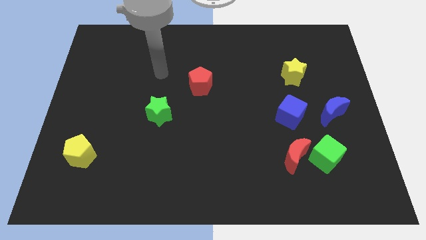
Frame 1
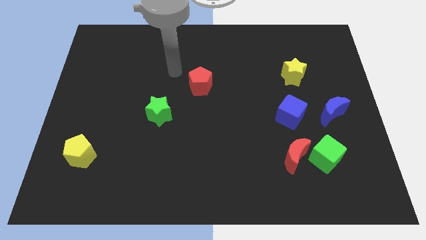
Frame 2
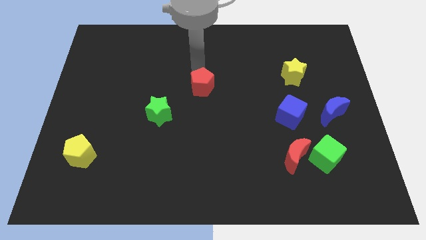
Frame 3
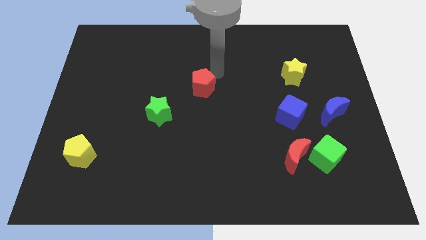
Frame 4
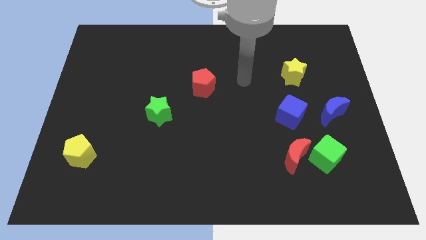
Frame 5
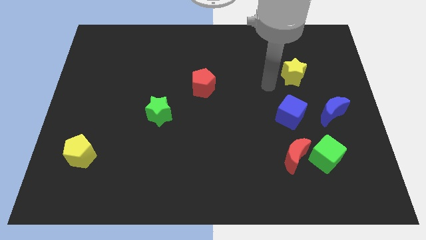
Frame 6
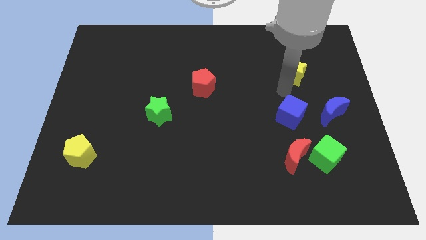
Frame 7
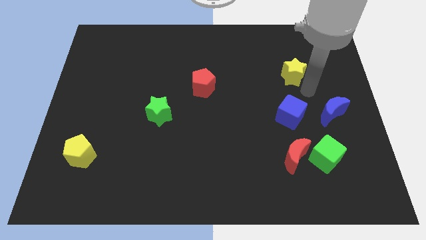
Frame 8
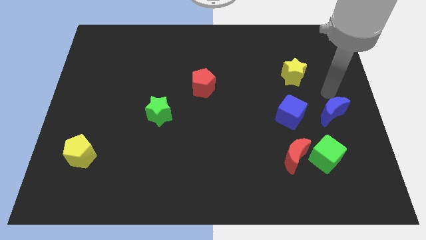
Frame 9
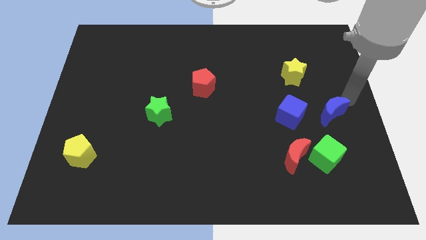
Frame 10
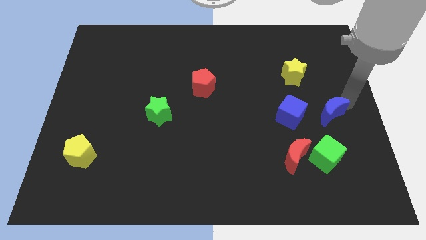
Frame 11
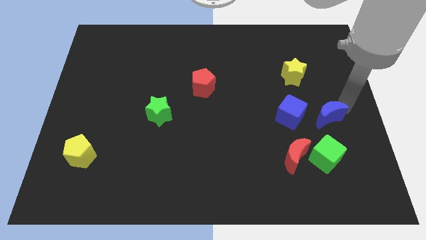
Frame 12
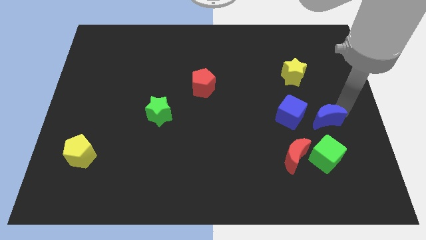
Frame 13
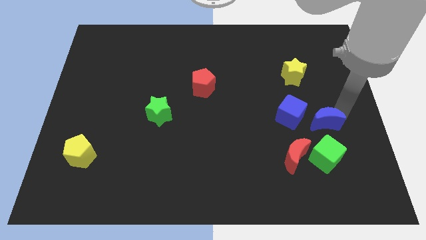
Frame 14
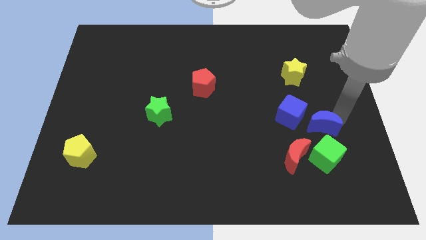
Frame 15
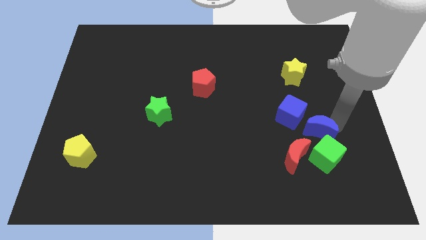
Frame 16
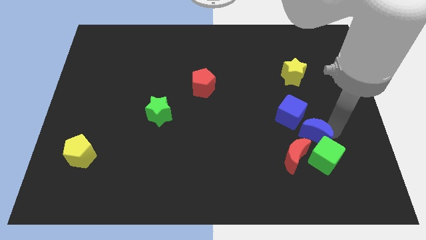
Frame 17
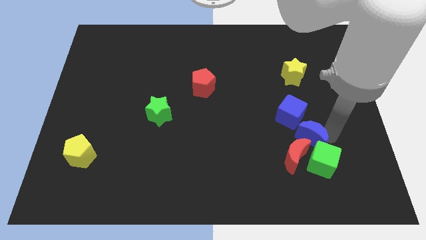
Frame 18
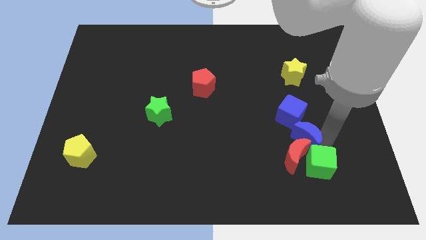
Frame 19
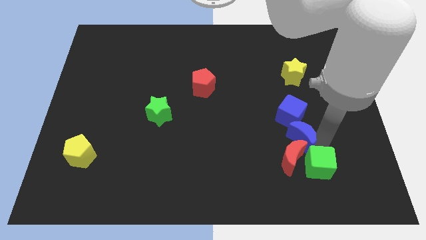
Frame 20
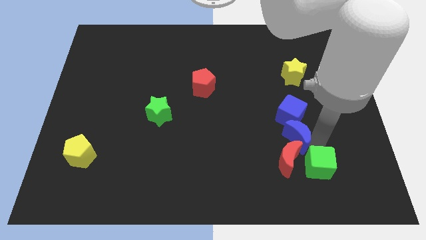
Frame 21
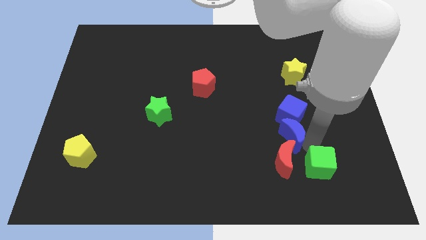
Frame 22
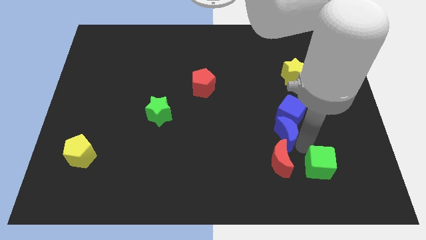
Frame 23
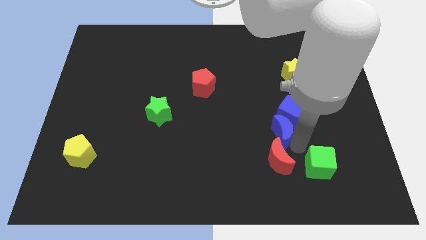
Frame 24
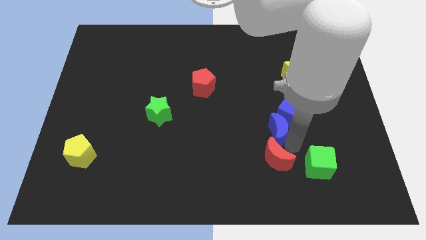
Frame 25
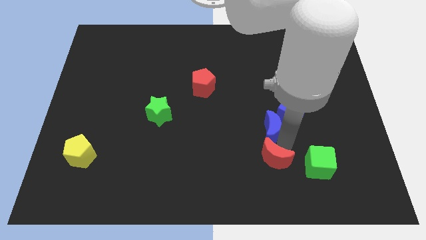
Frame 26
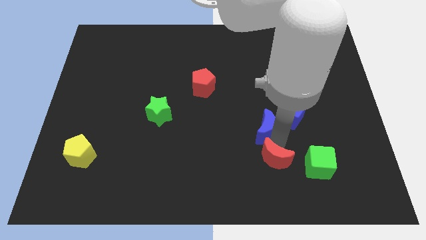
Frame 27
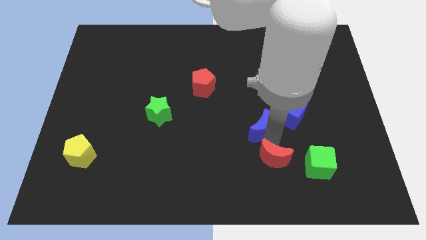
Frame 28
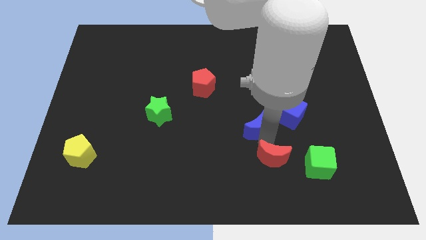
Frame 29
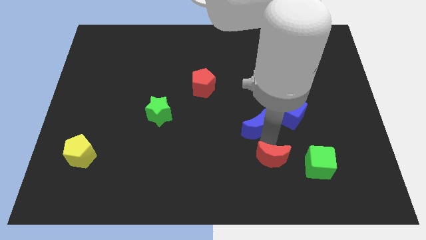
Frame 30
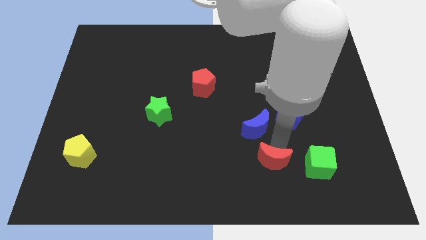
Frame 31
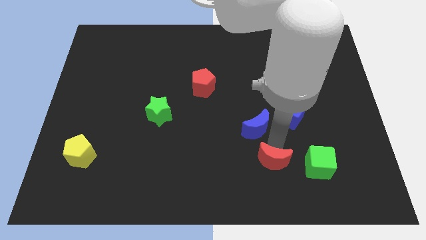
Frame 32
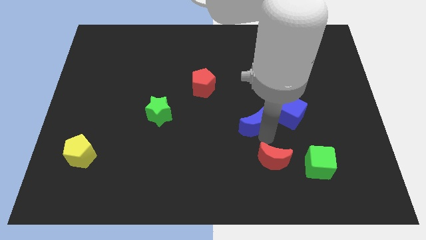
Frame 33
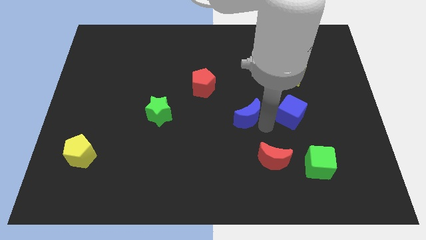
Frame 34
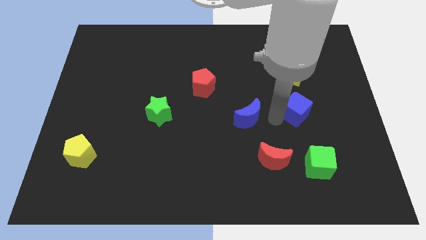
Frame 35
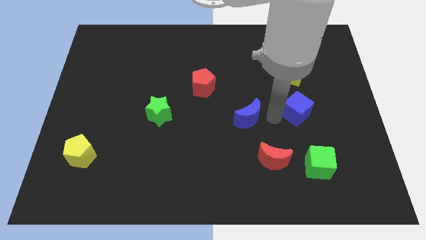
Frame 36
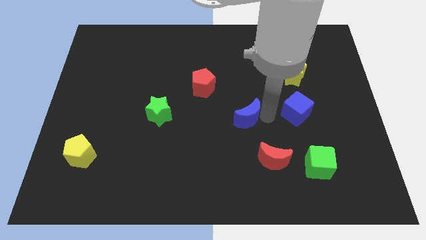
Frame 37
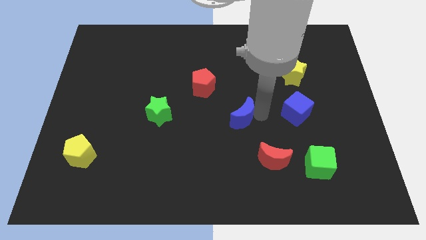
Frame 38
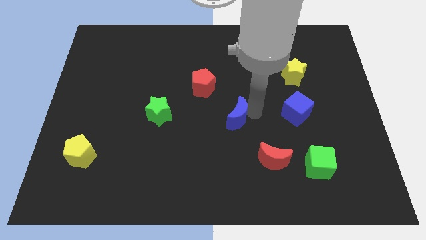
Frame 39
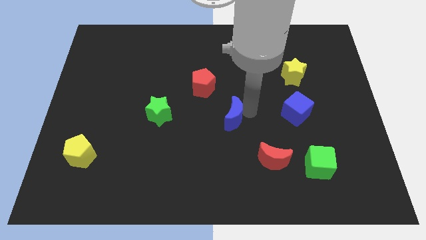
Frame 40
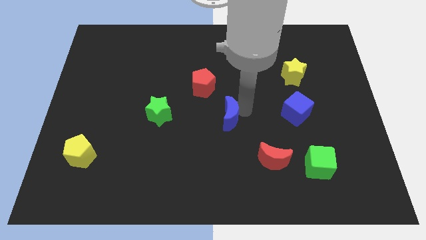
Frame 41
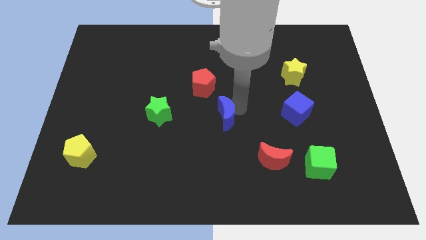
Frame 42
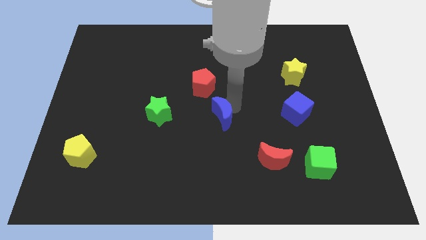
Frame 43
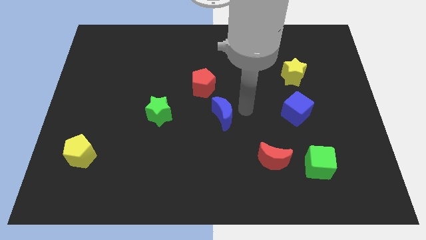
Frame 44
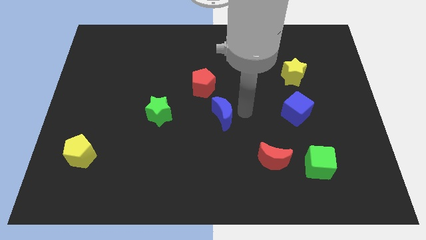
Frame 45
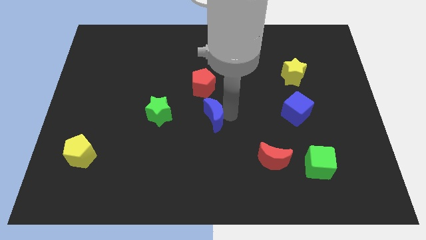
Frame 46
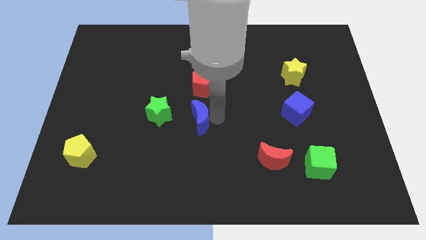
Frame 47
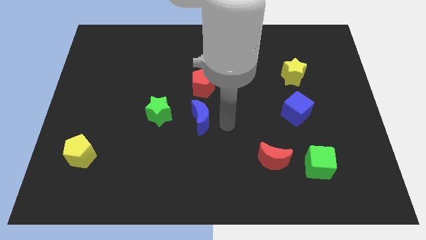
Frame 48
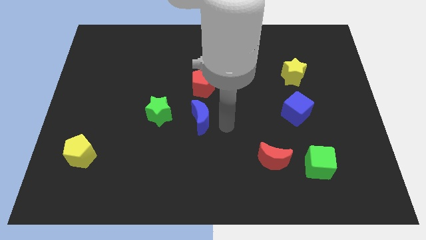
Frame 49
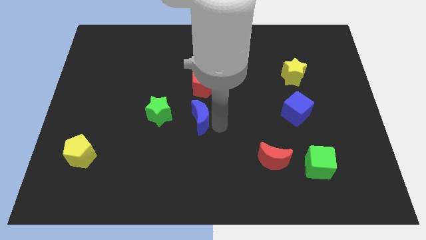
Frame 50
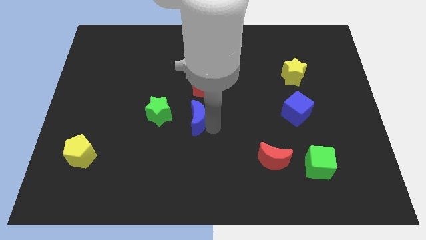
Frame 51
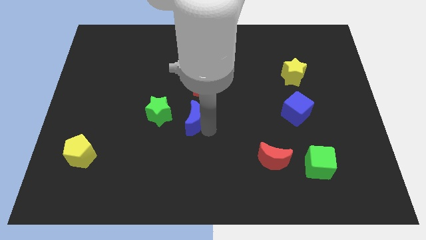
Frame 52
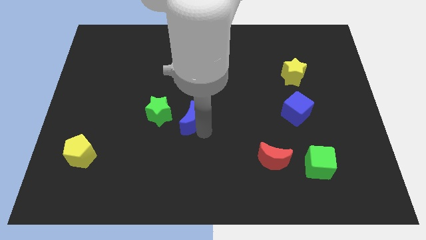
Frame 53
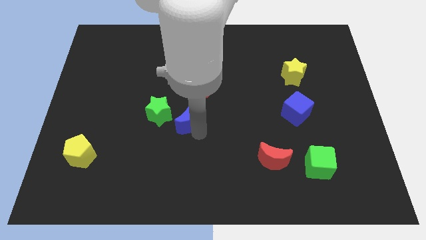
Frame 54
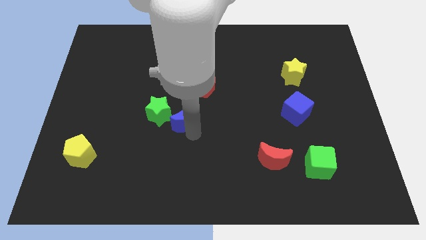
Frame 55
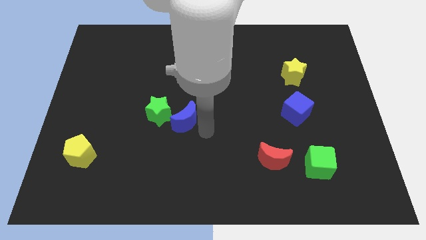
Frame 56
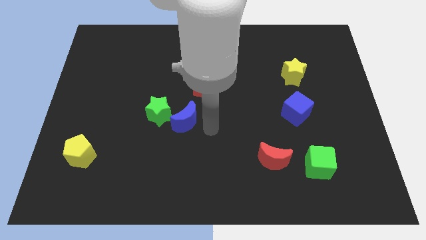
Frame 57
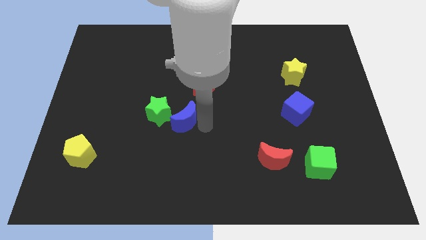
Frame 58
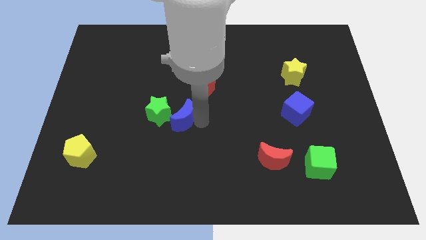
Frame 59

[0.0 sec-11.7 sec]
slide the blue moon close to the green star

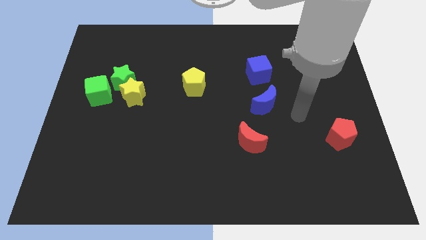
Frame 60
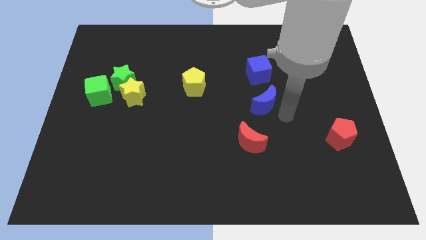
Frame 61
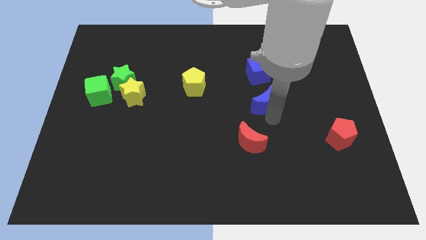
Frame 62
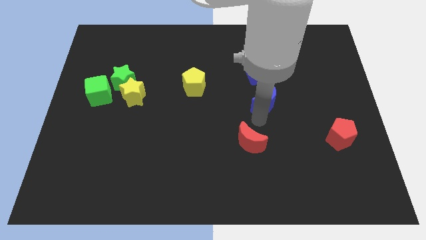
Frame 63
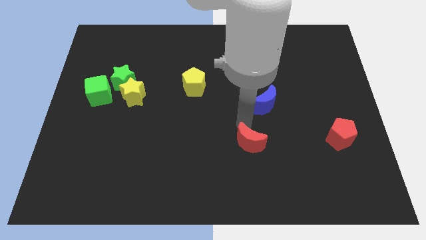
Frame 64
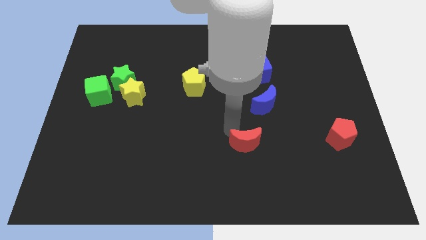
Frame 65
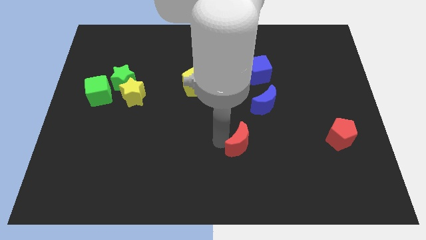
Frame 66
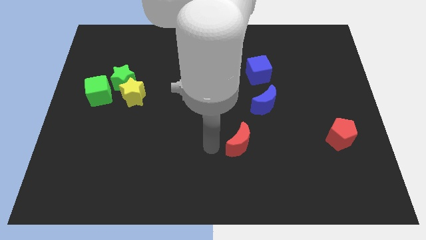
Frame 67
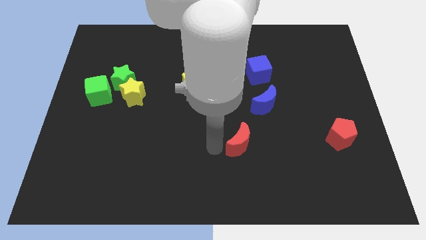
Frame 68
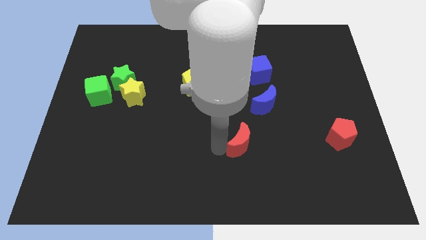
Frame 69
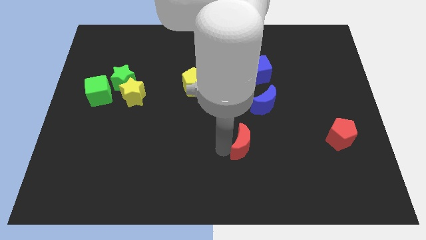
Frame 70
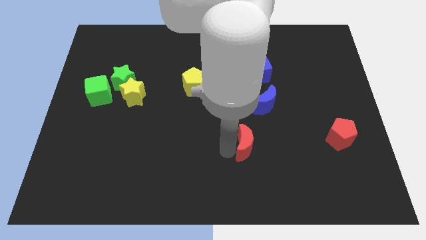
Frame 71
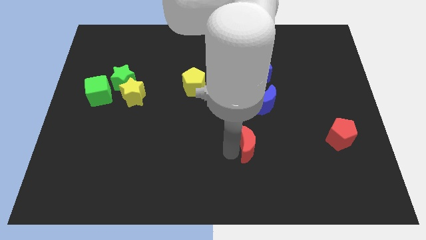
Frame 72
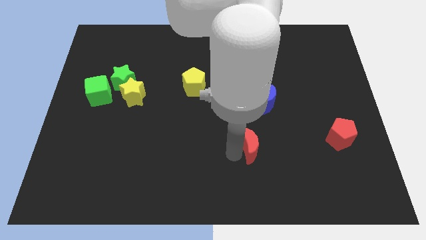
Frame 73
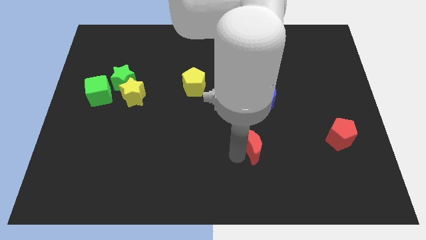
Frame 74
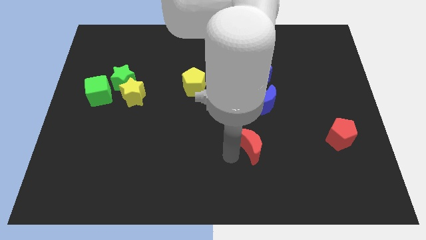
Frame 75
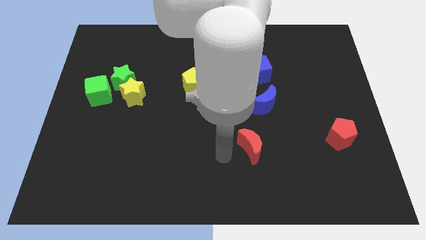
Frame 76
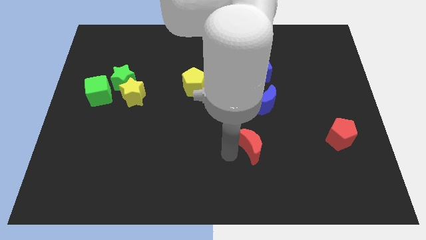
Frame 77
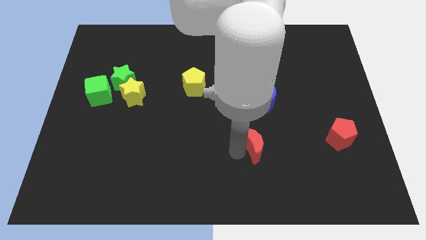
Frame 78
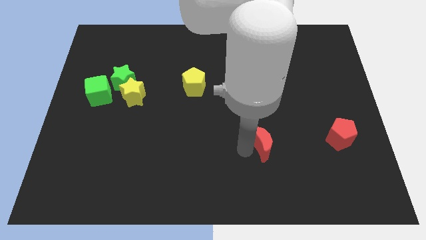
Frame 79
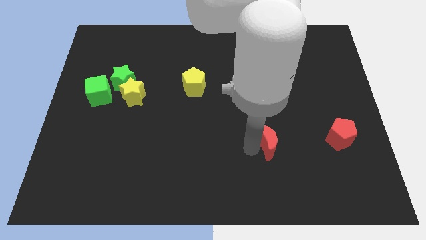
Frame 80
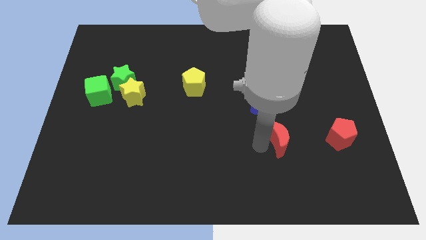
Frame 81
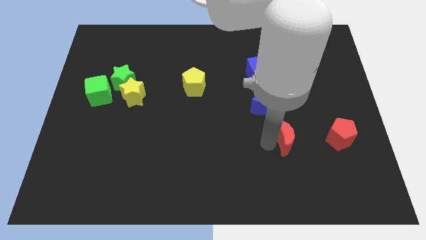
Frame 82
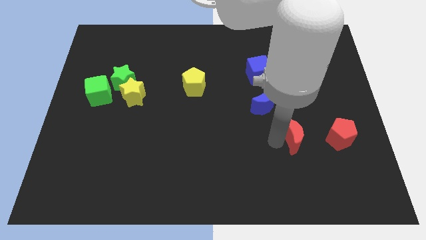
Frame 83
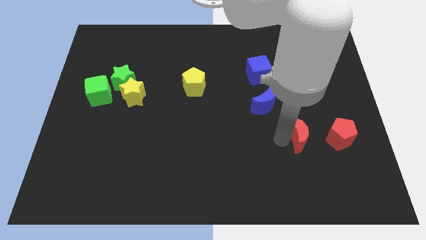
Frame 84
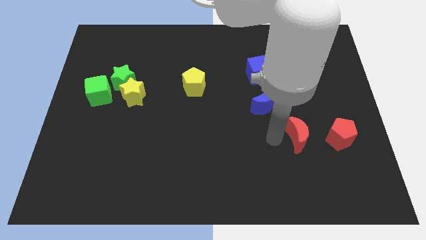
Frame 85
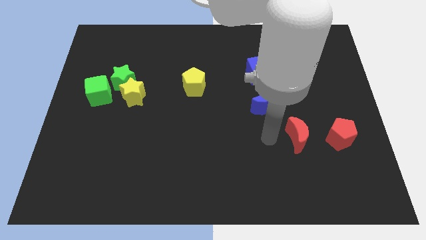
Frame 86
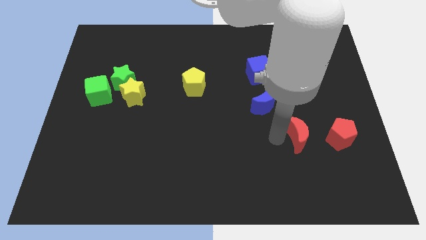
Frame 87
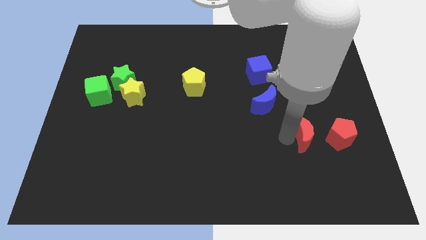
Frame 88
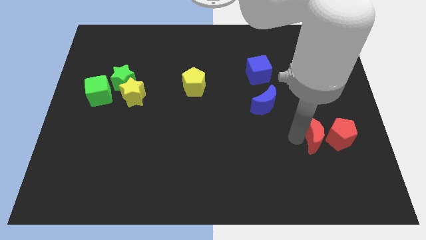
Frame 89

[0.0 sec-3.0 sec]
put the red moon towards the red pentagon
